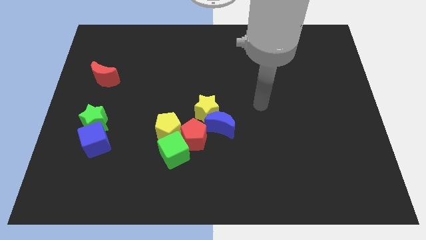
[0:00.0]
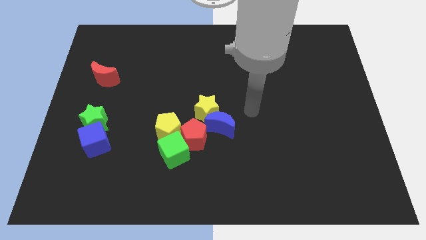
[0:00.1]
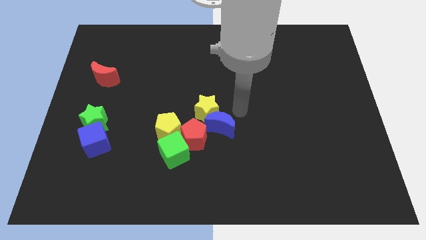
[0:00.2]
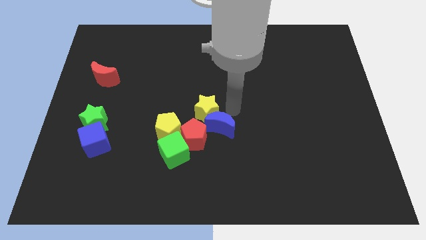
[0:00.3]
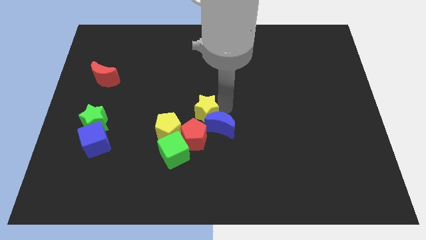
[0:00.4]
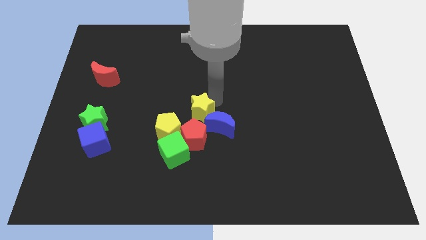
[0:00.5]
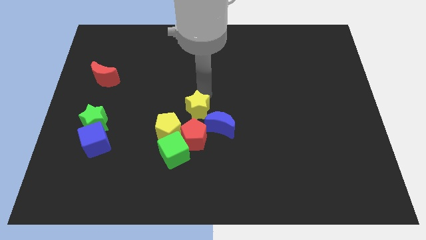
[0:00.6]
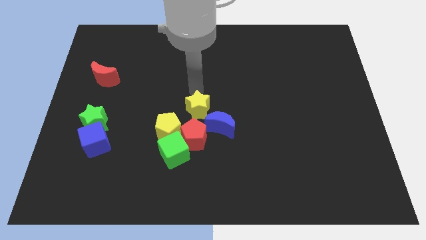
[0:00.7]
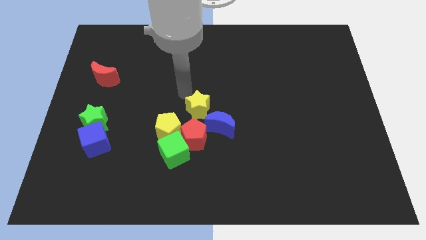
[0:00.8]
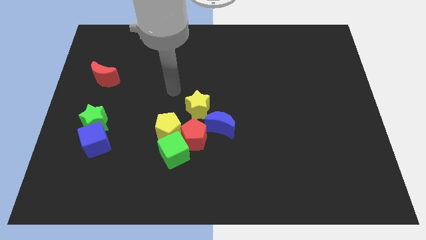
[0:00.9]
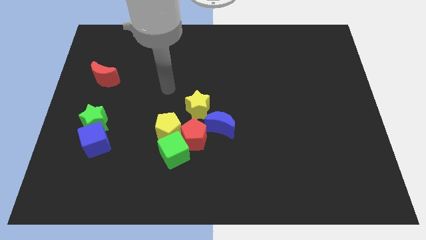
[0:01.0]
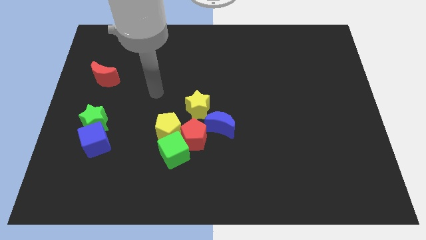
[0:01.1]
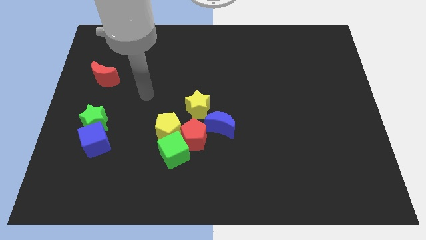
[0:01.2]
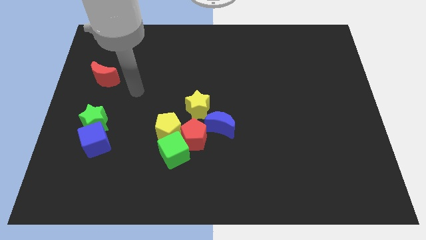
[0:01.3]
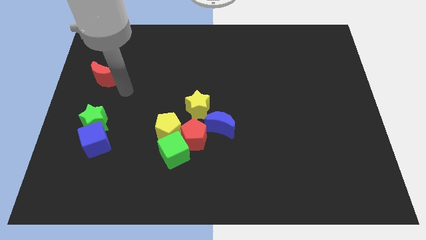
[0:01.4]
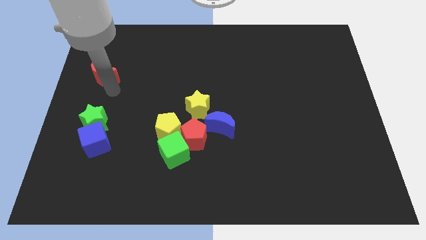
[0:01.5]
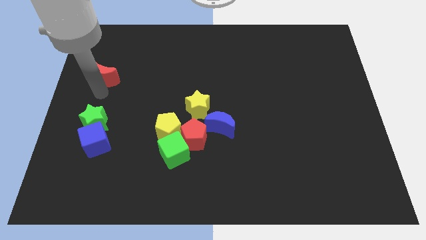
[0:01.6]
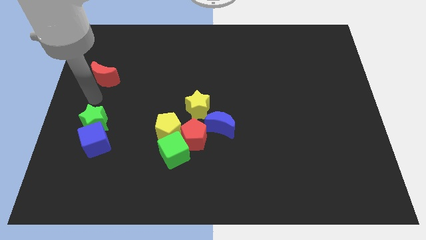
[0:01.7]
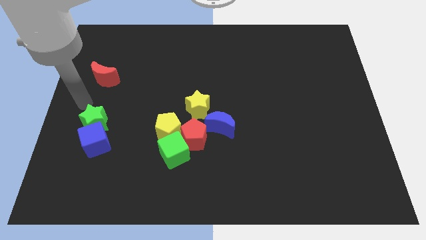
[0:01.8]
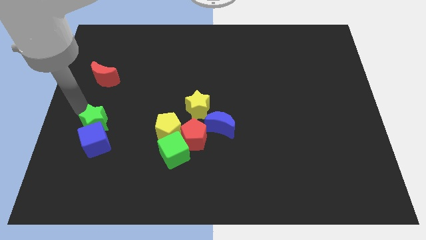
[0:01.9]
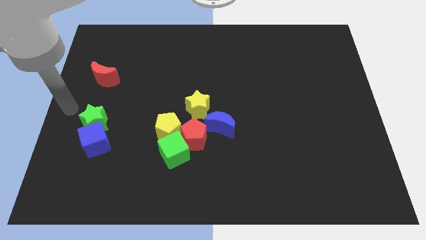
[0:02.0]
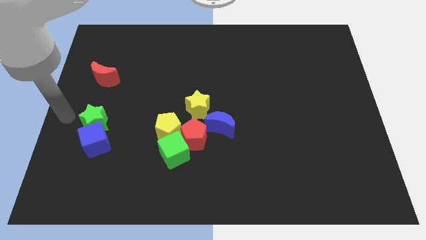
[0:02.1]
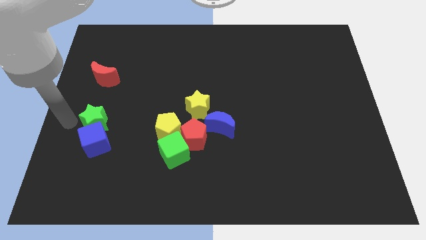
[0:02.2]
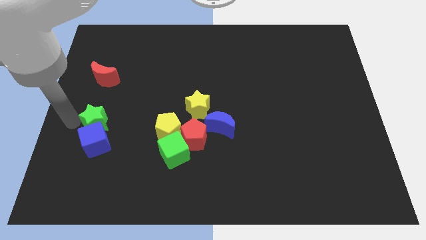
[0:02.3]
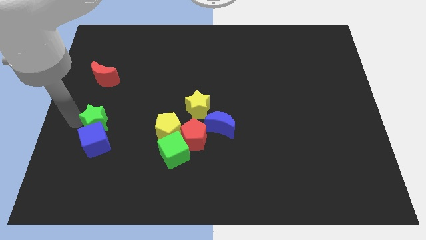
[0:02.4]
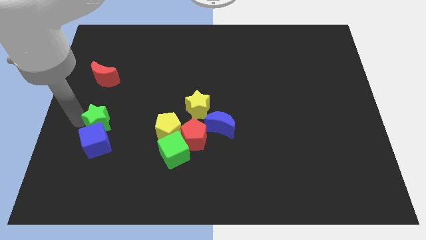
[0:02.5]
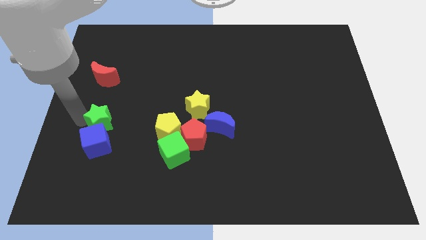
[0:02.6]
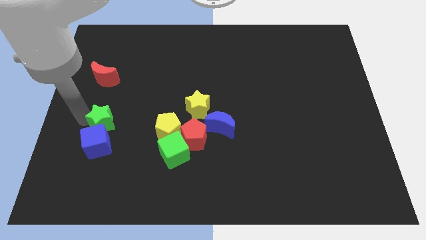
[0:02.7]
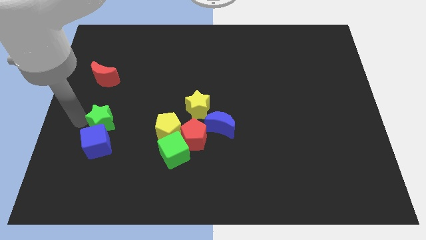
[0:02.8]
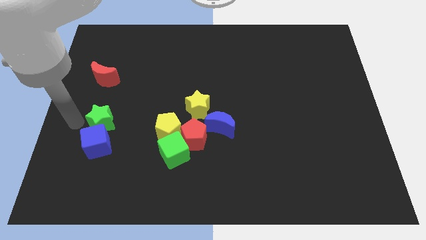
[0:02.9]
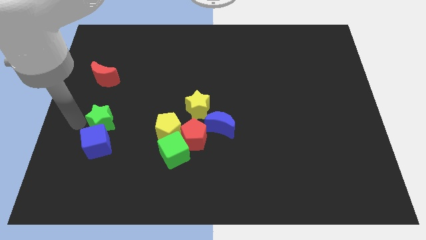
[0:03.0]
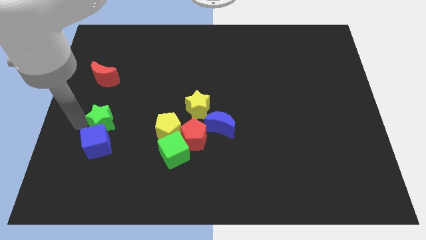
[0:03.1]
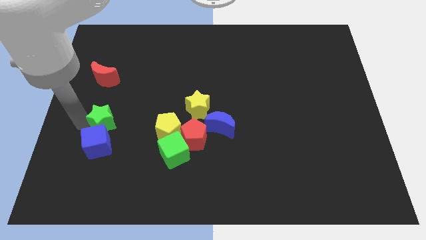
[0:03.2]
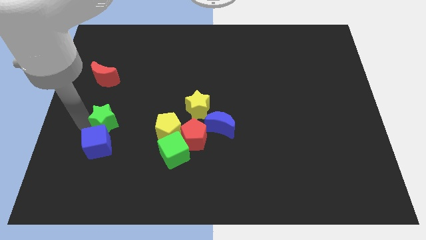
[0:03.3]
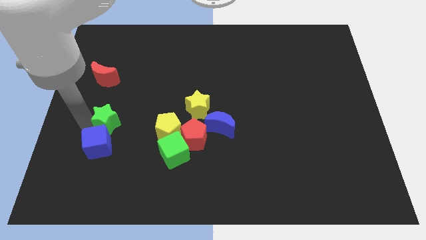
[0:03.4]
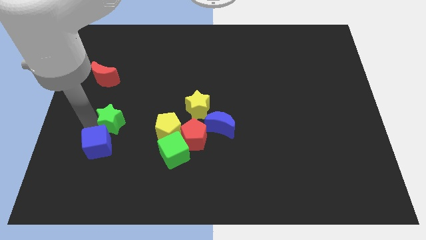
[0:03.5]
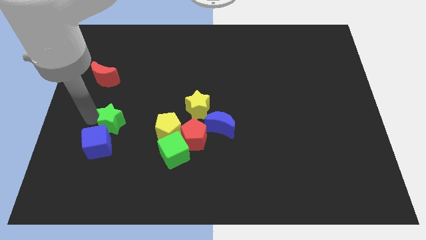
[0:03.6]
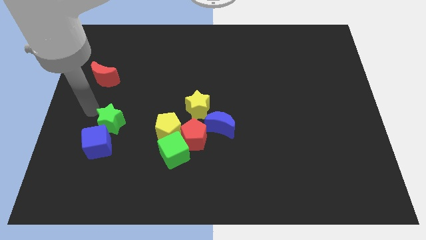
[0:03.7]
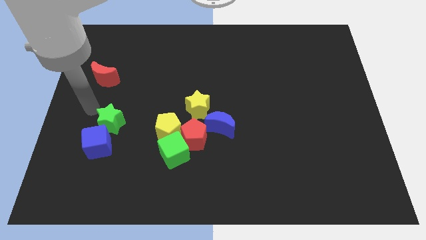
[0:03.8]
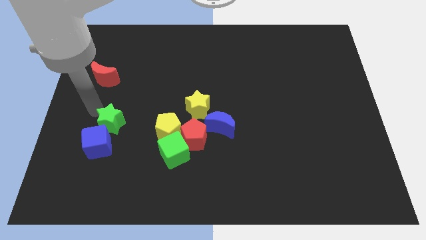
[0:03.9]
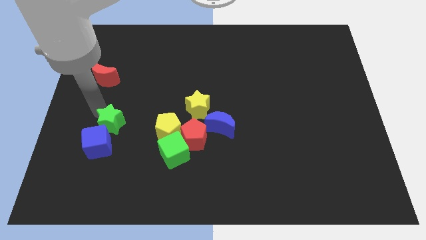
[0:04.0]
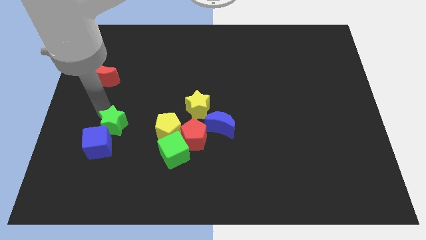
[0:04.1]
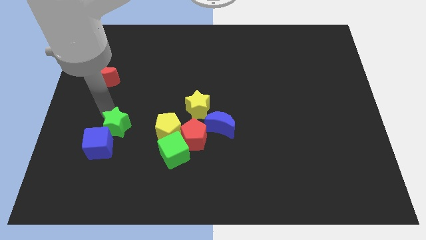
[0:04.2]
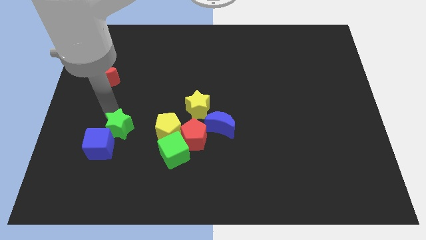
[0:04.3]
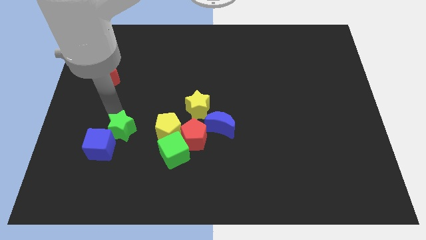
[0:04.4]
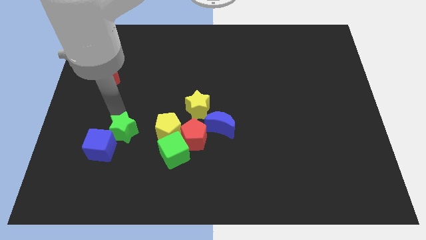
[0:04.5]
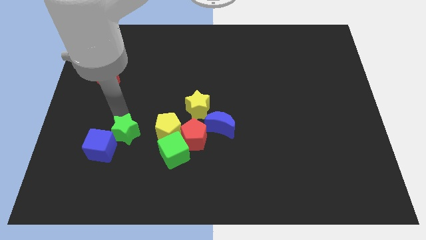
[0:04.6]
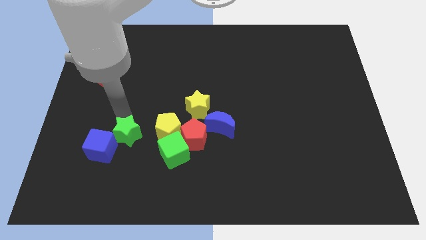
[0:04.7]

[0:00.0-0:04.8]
slightly slide the green star down and then to the right

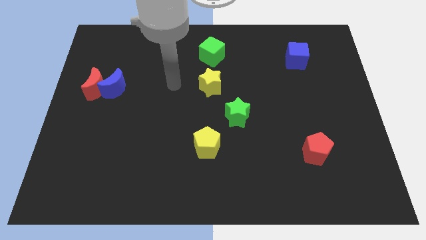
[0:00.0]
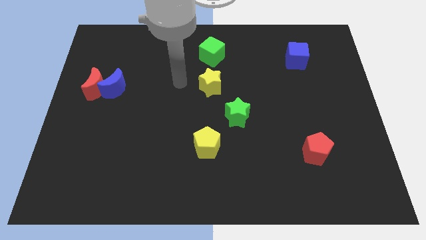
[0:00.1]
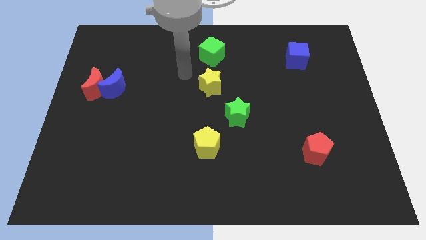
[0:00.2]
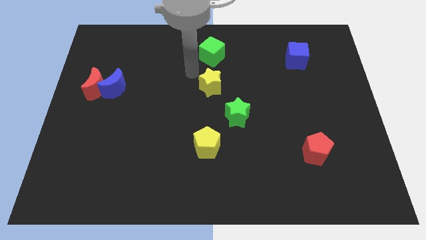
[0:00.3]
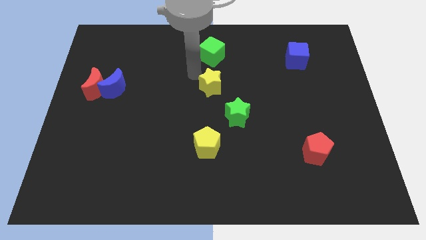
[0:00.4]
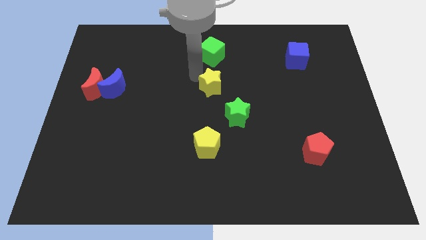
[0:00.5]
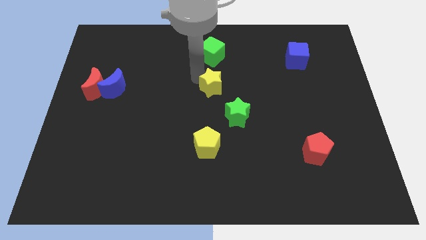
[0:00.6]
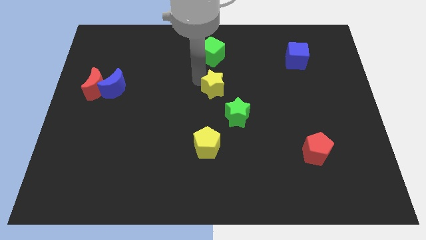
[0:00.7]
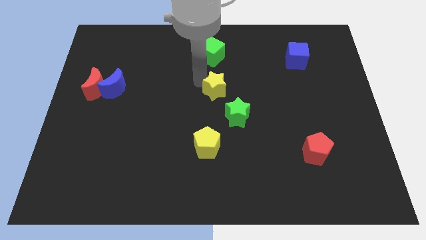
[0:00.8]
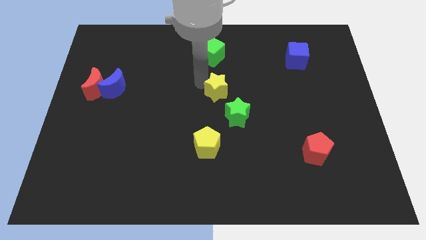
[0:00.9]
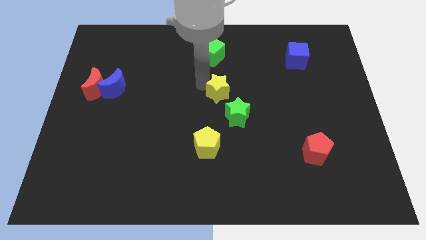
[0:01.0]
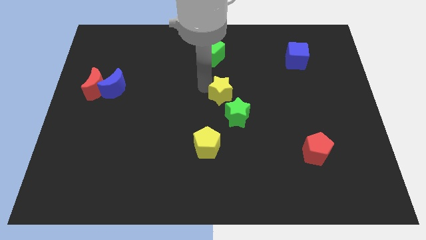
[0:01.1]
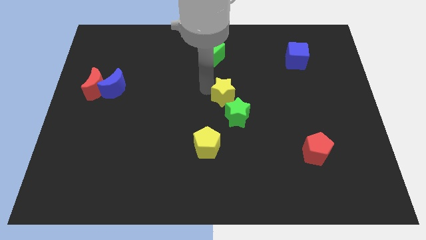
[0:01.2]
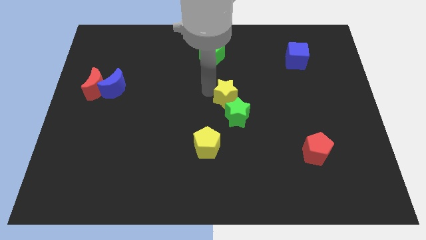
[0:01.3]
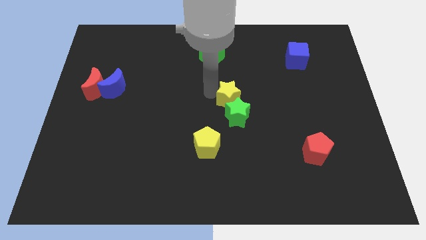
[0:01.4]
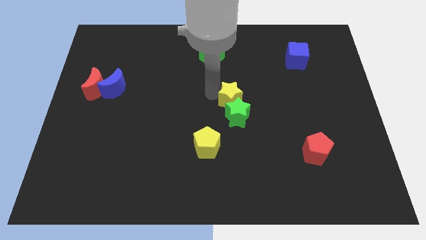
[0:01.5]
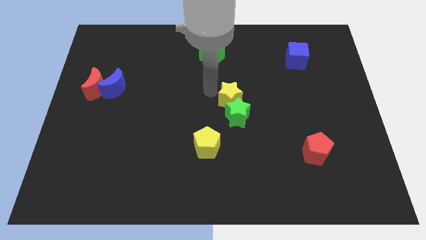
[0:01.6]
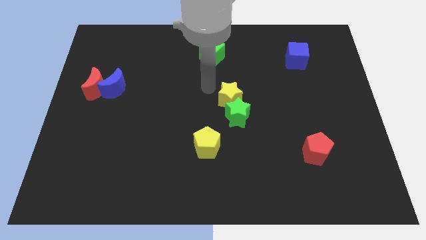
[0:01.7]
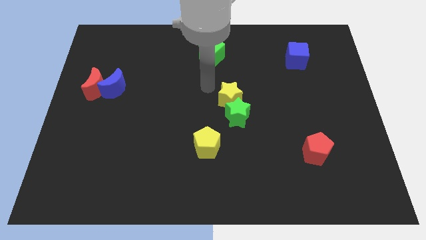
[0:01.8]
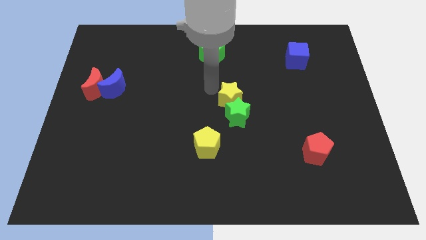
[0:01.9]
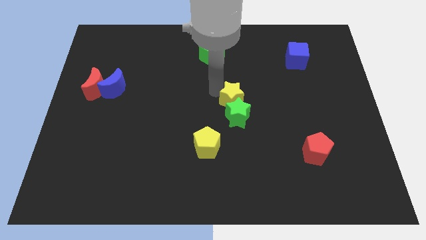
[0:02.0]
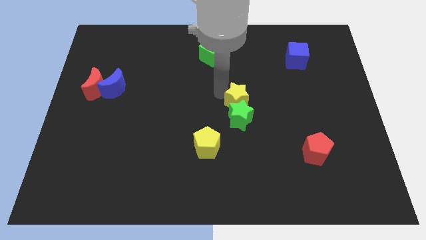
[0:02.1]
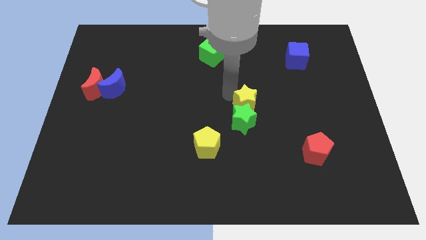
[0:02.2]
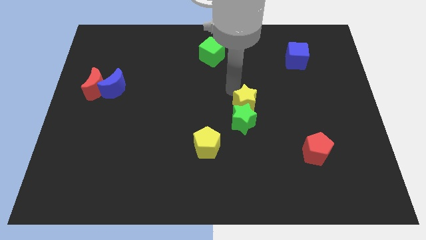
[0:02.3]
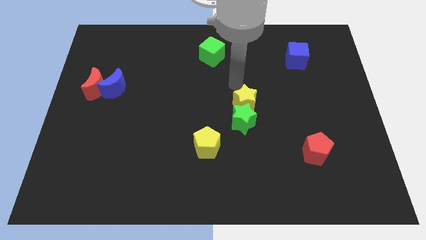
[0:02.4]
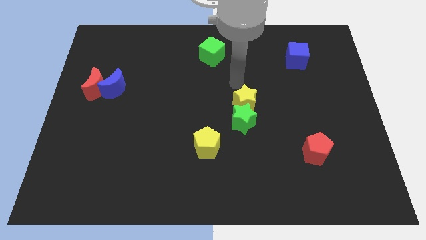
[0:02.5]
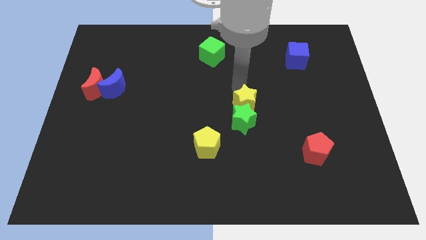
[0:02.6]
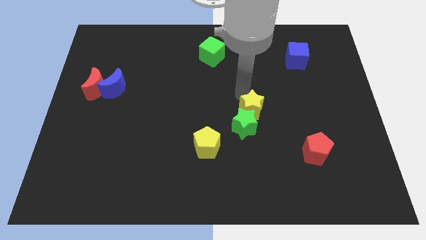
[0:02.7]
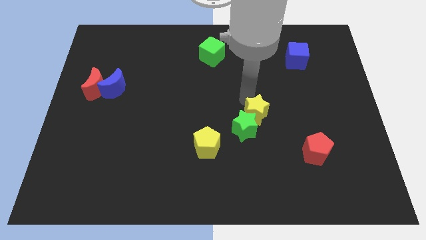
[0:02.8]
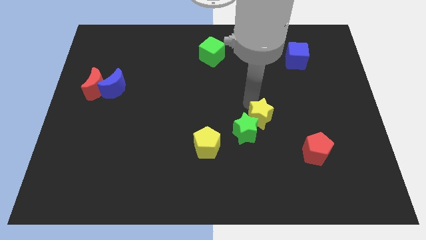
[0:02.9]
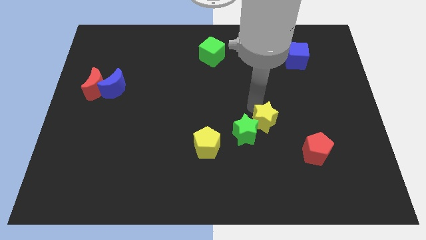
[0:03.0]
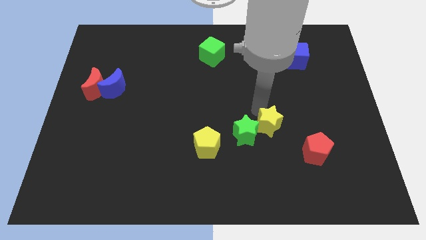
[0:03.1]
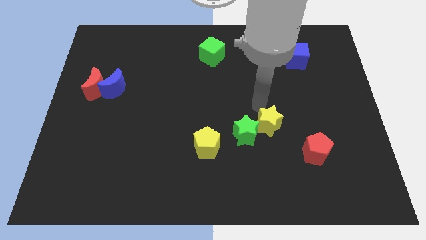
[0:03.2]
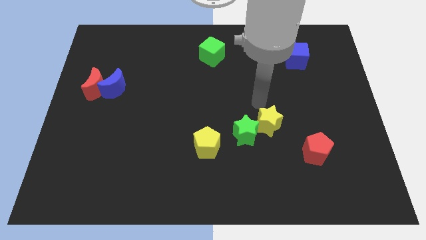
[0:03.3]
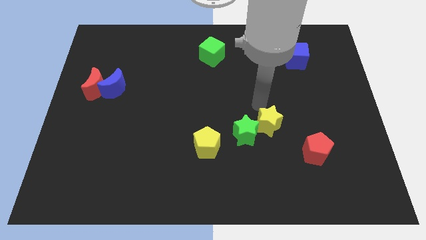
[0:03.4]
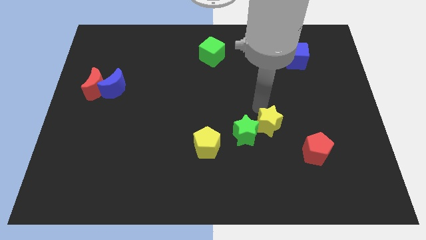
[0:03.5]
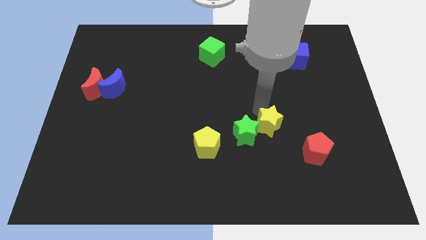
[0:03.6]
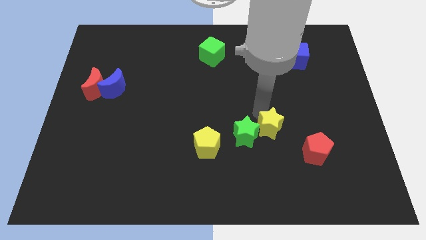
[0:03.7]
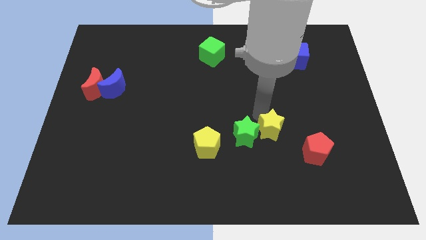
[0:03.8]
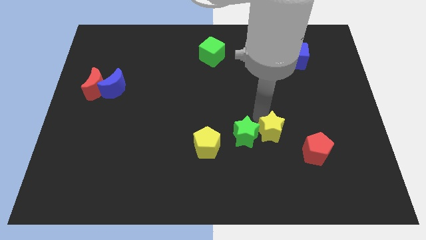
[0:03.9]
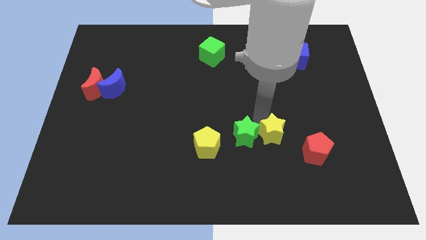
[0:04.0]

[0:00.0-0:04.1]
slide the yellow star diagonally downwards and right
